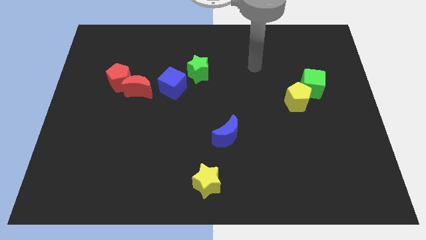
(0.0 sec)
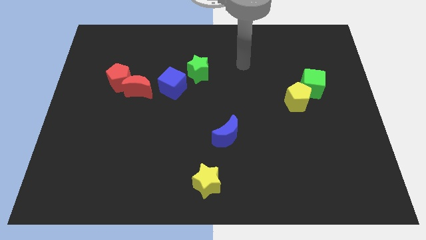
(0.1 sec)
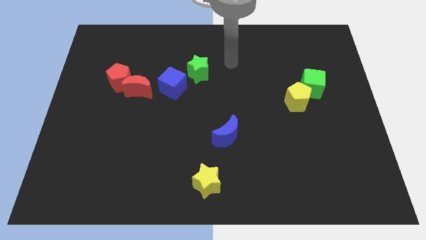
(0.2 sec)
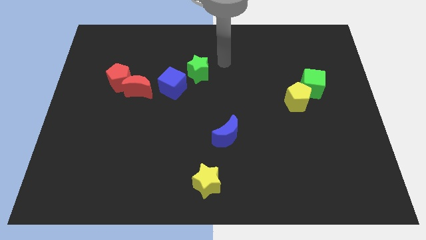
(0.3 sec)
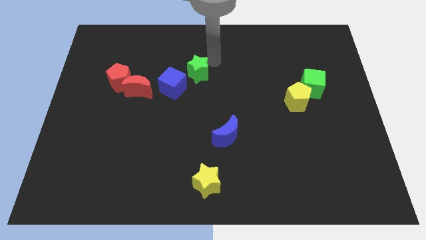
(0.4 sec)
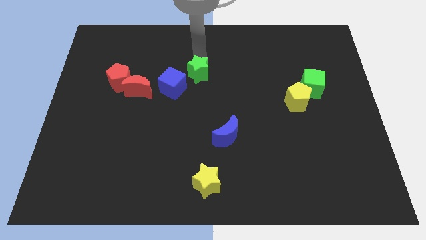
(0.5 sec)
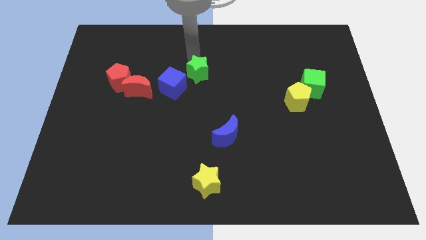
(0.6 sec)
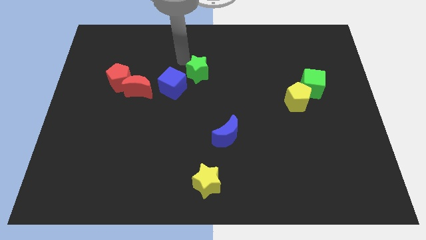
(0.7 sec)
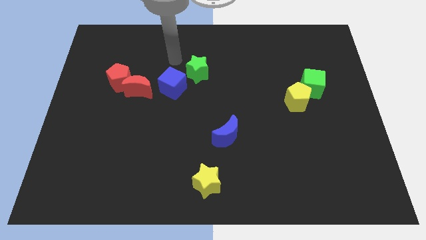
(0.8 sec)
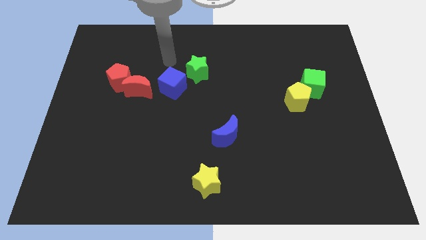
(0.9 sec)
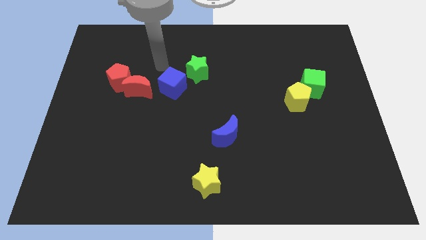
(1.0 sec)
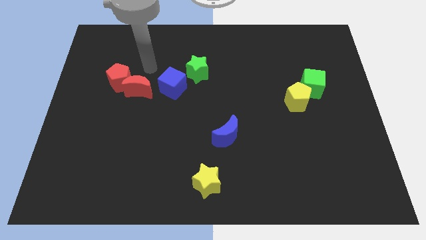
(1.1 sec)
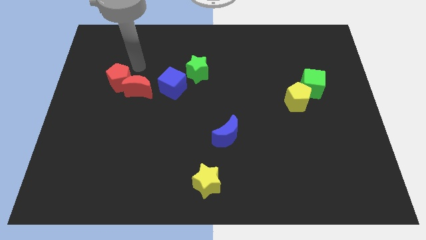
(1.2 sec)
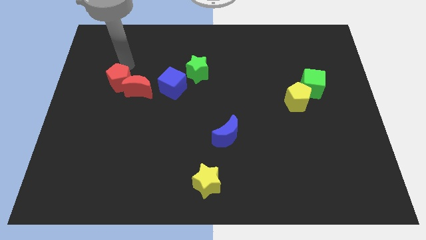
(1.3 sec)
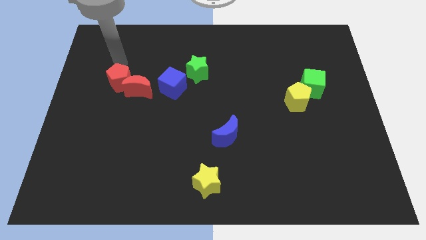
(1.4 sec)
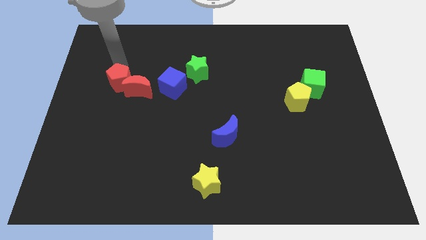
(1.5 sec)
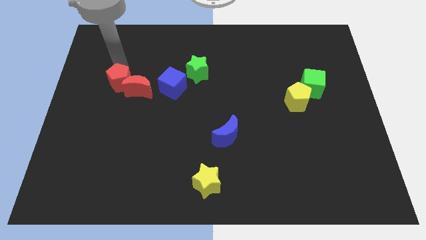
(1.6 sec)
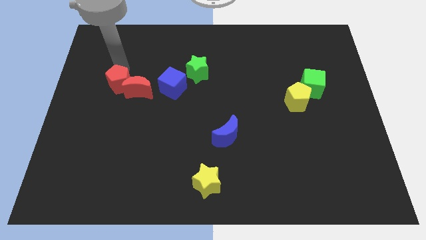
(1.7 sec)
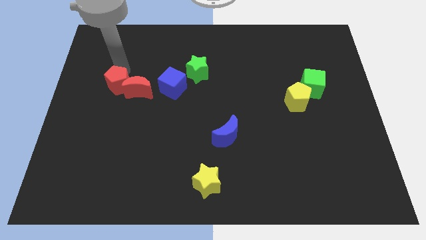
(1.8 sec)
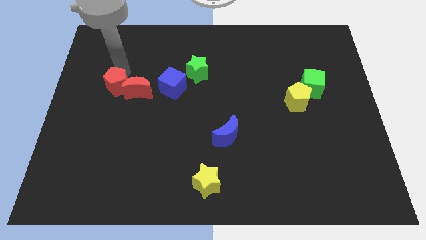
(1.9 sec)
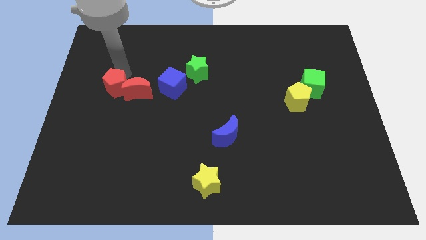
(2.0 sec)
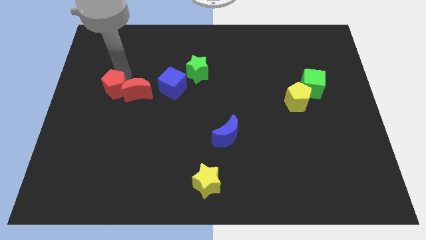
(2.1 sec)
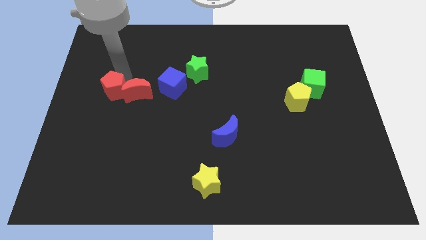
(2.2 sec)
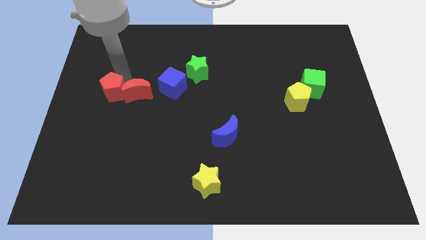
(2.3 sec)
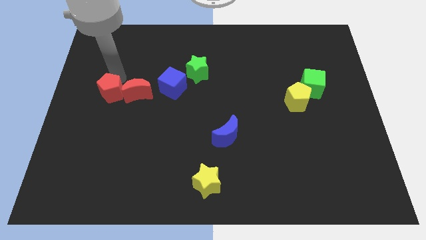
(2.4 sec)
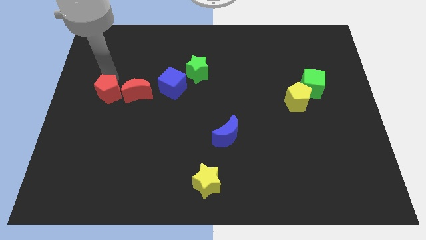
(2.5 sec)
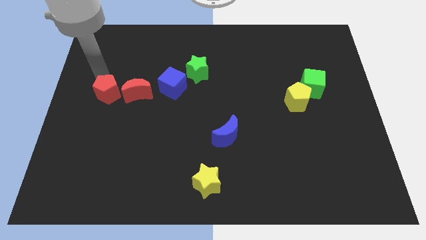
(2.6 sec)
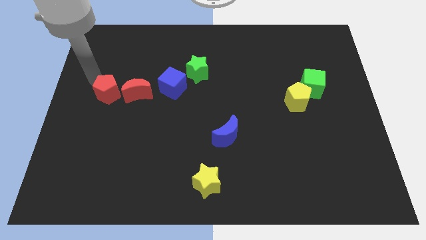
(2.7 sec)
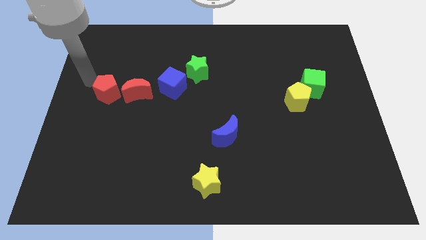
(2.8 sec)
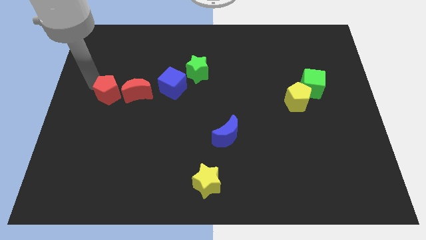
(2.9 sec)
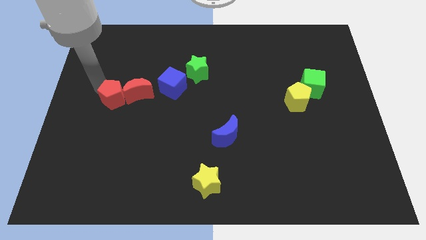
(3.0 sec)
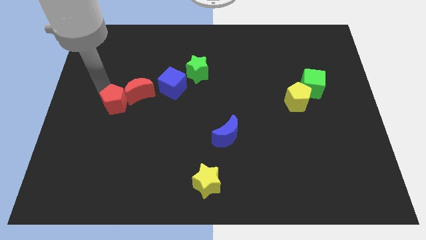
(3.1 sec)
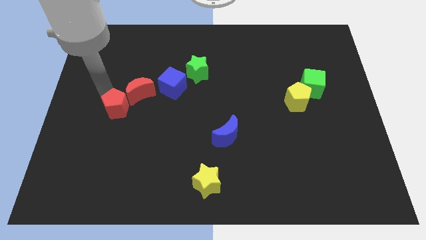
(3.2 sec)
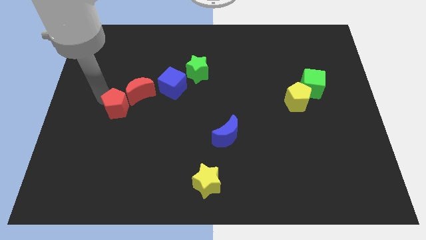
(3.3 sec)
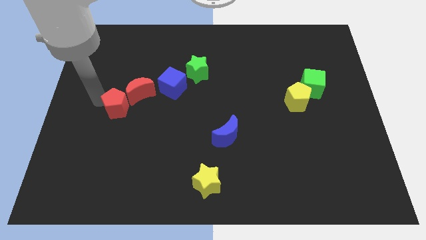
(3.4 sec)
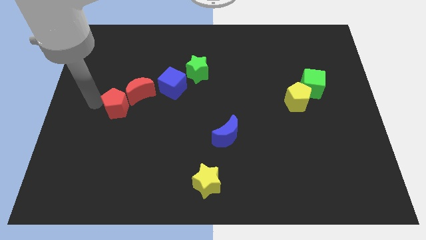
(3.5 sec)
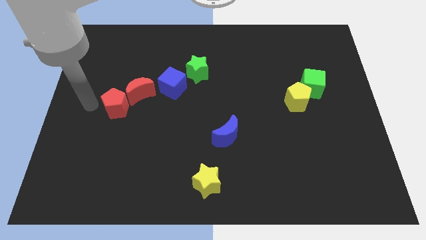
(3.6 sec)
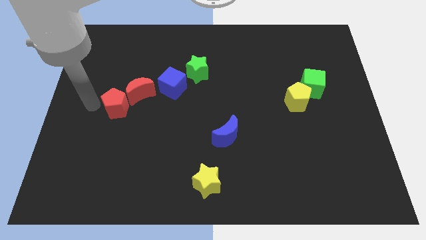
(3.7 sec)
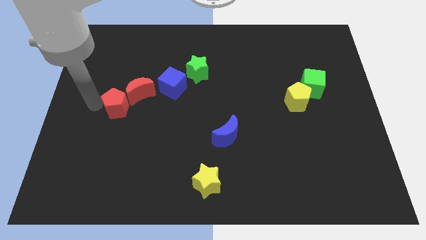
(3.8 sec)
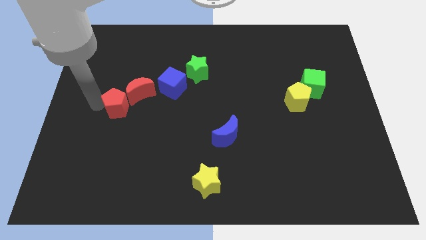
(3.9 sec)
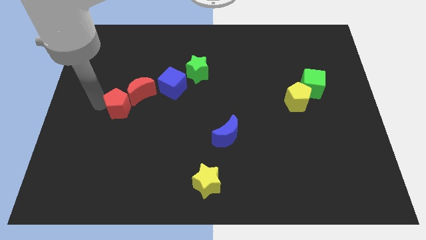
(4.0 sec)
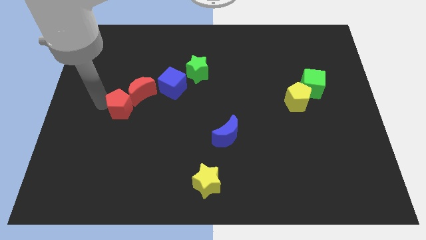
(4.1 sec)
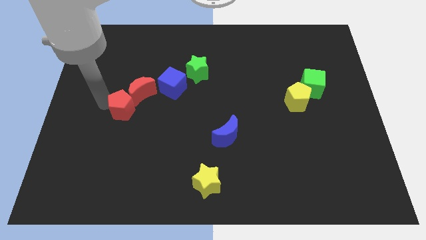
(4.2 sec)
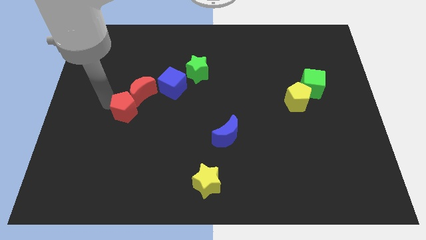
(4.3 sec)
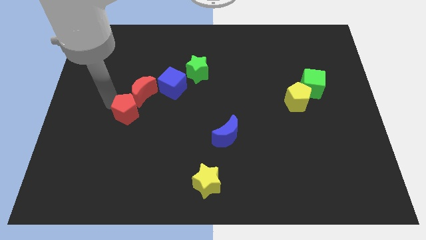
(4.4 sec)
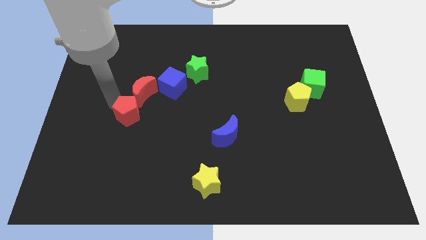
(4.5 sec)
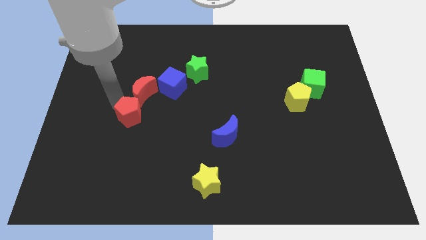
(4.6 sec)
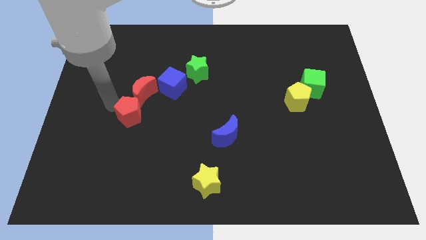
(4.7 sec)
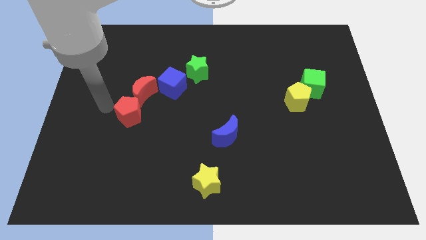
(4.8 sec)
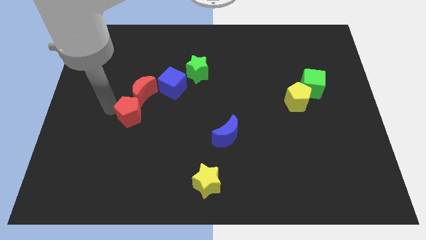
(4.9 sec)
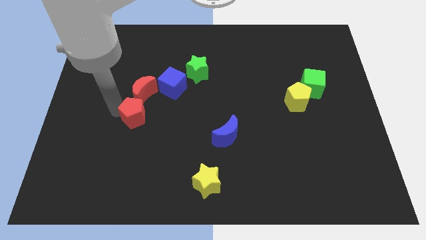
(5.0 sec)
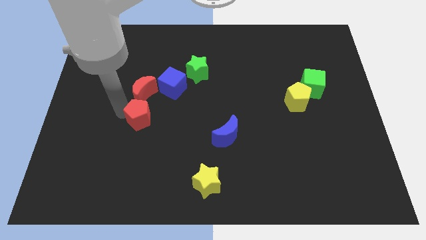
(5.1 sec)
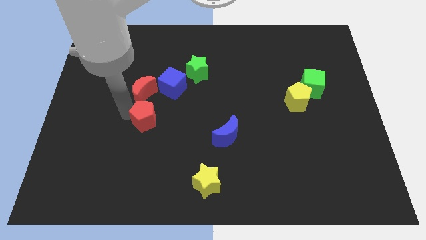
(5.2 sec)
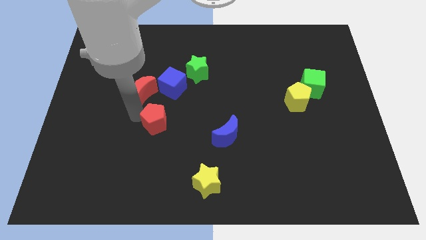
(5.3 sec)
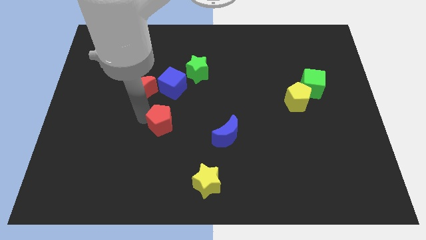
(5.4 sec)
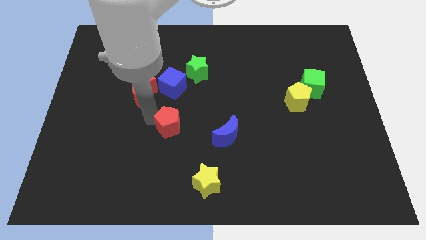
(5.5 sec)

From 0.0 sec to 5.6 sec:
move the red pentagon to the left side of the blue moon
